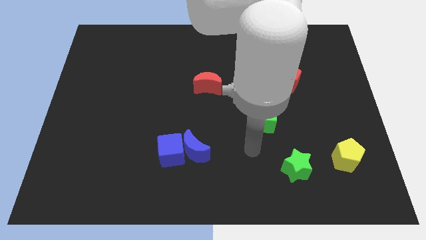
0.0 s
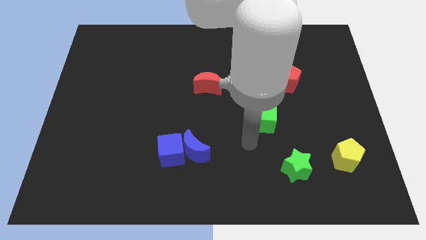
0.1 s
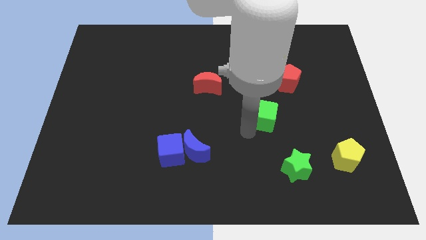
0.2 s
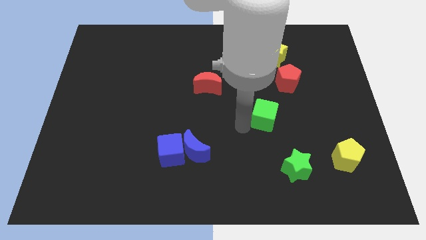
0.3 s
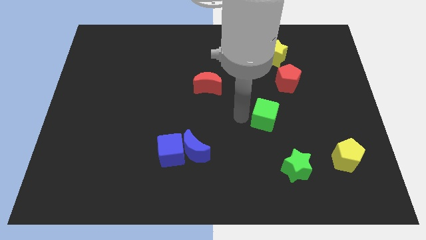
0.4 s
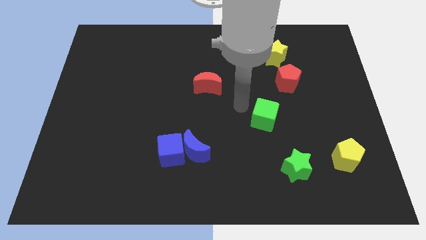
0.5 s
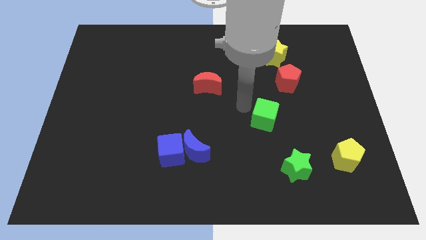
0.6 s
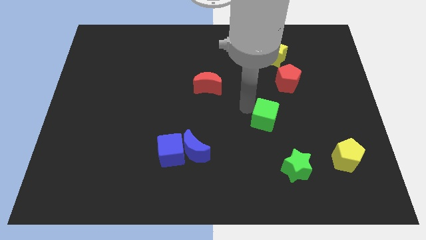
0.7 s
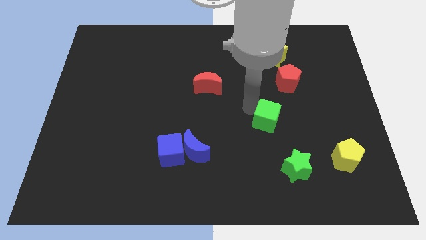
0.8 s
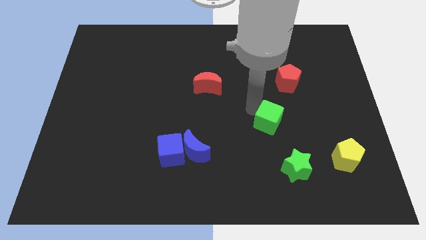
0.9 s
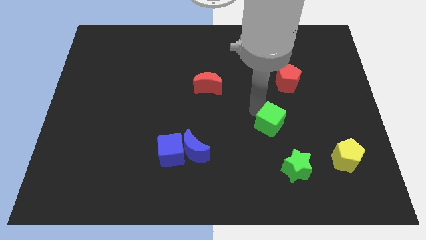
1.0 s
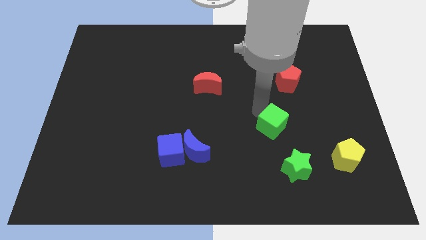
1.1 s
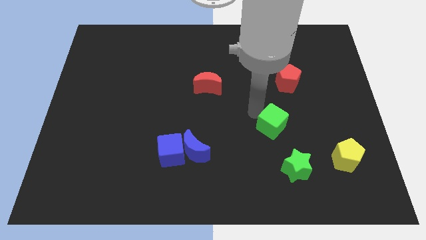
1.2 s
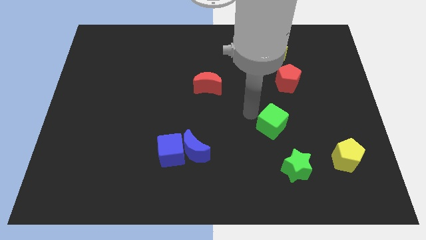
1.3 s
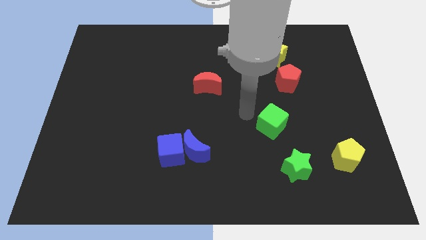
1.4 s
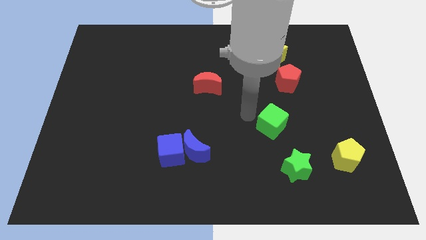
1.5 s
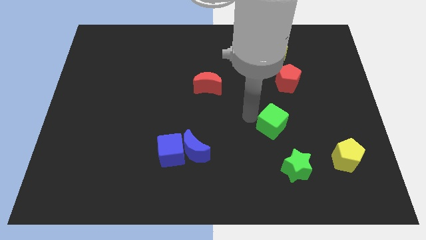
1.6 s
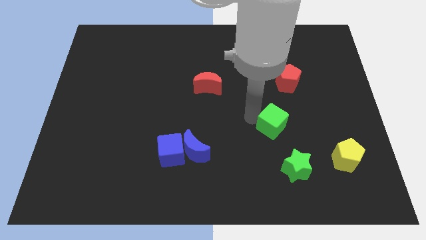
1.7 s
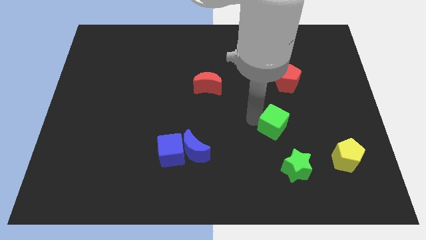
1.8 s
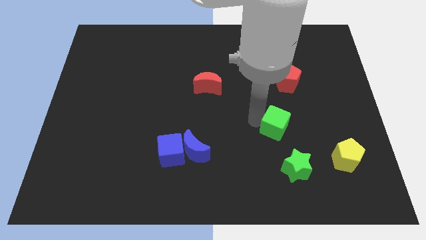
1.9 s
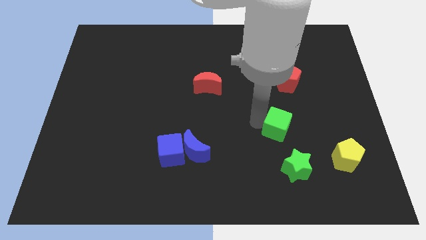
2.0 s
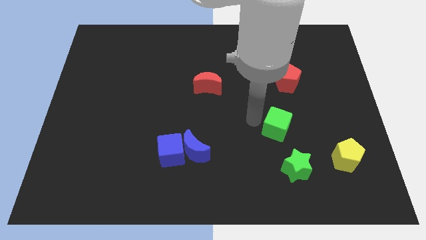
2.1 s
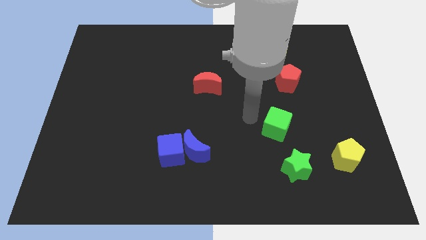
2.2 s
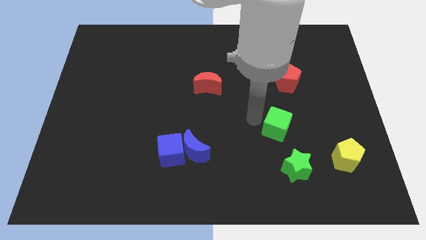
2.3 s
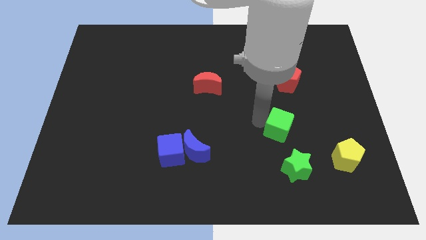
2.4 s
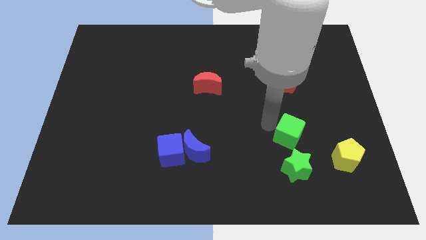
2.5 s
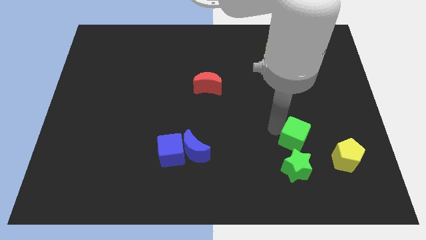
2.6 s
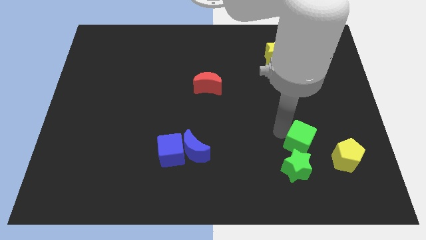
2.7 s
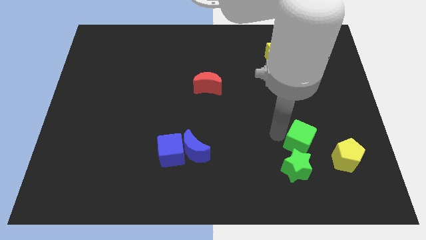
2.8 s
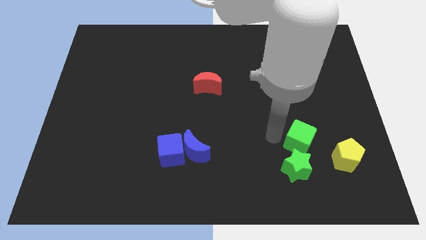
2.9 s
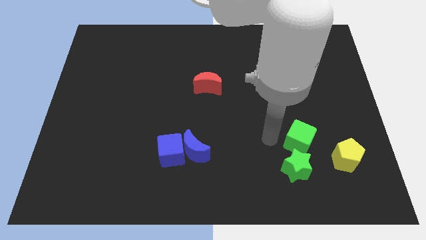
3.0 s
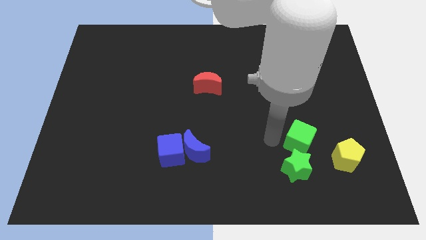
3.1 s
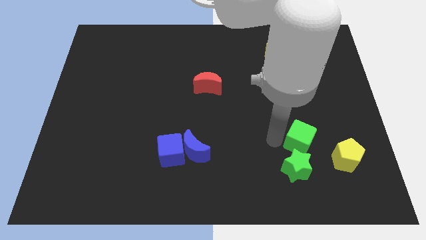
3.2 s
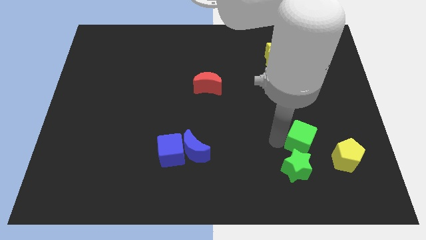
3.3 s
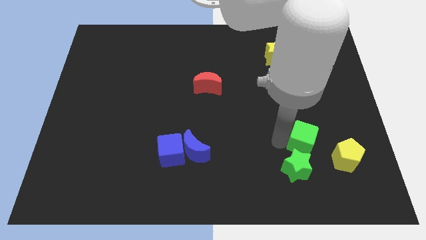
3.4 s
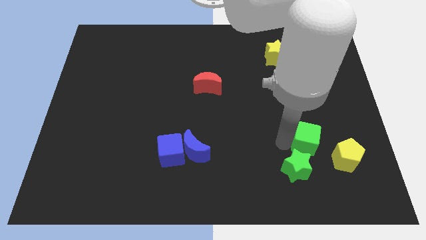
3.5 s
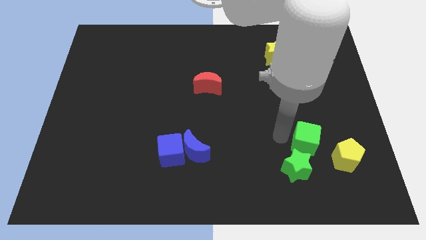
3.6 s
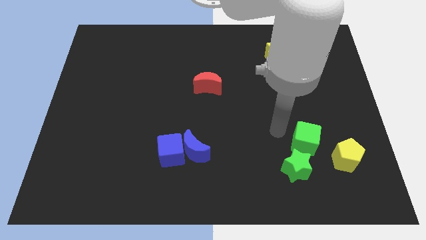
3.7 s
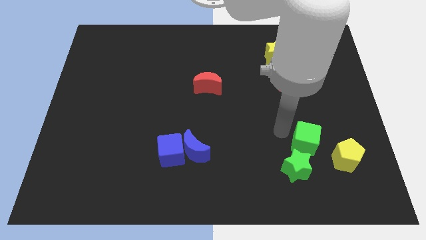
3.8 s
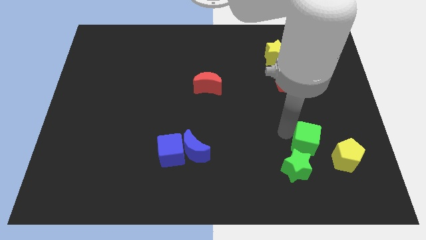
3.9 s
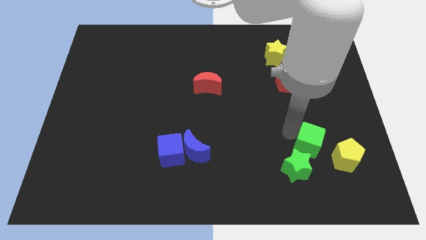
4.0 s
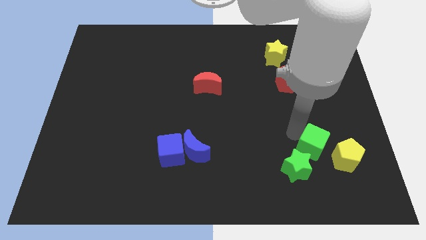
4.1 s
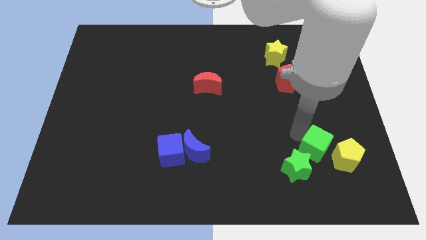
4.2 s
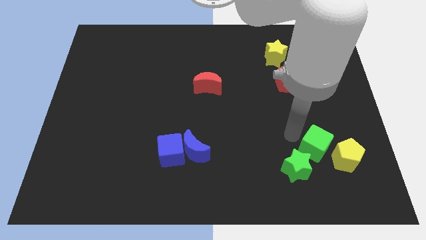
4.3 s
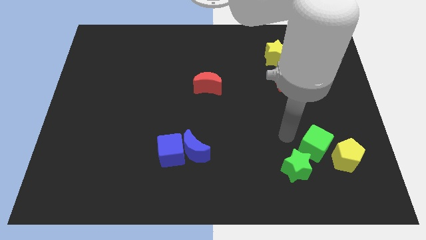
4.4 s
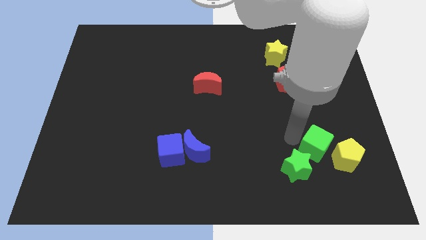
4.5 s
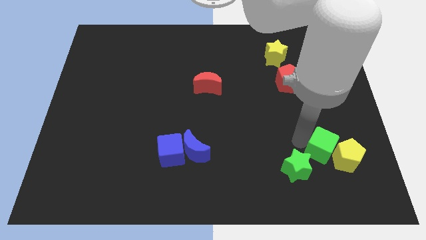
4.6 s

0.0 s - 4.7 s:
move the green cube towards the yellow pentagon

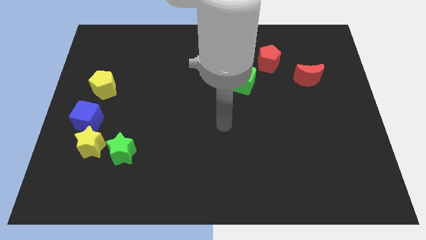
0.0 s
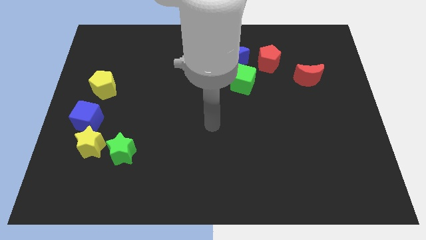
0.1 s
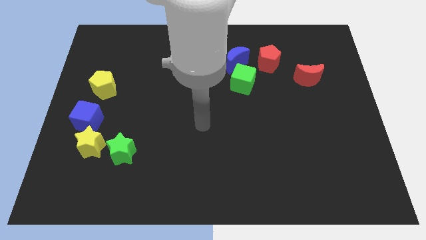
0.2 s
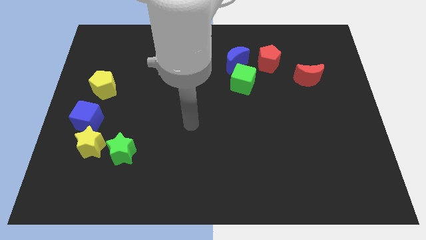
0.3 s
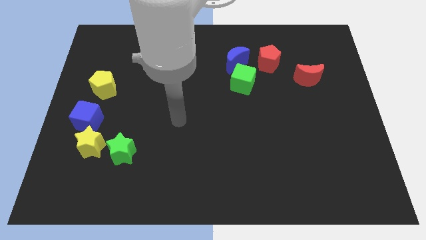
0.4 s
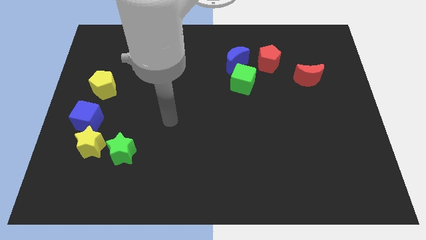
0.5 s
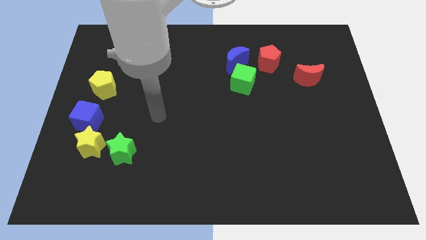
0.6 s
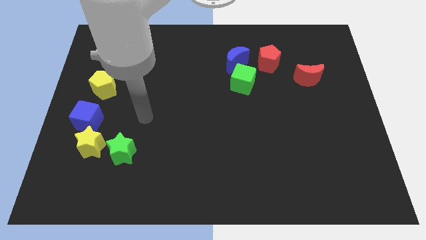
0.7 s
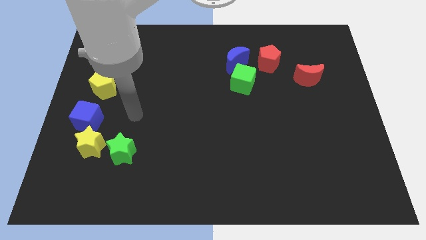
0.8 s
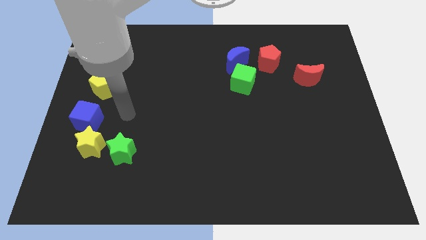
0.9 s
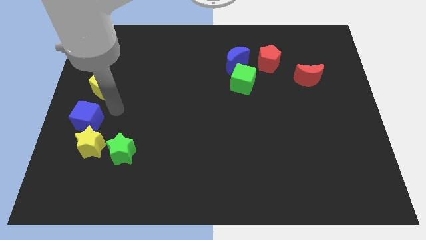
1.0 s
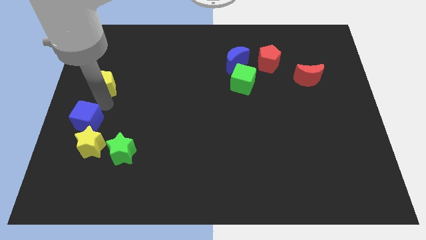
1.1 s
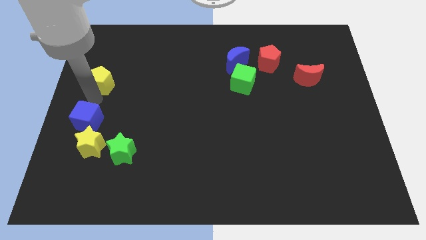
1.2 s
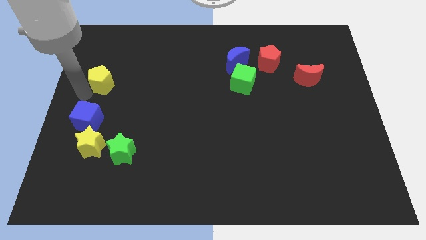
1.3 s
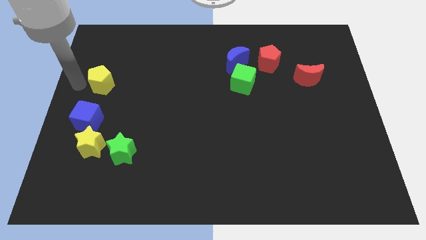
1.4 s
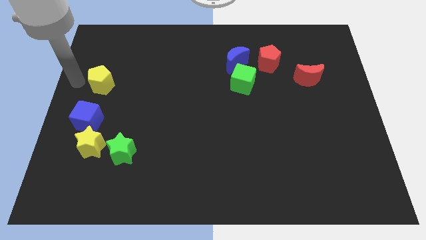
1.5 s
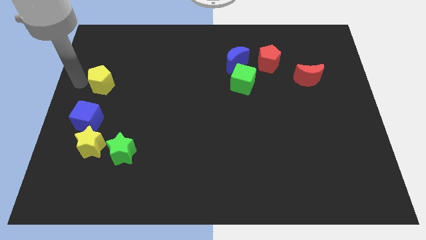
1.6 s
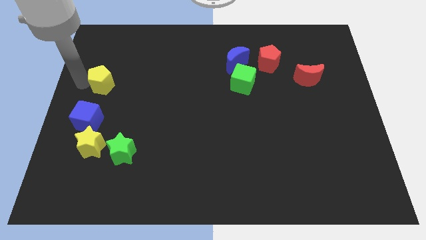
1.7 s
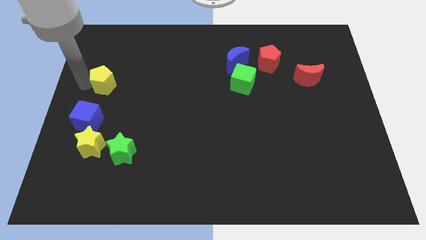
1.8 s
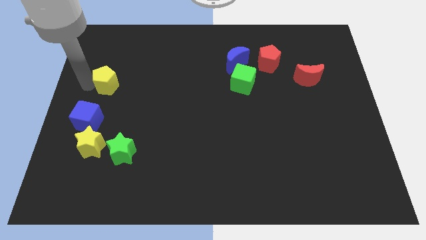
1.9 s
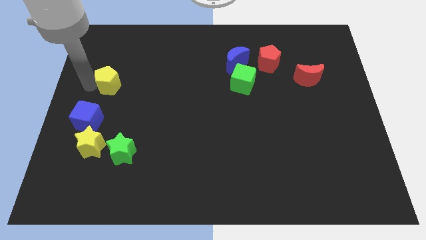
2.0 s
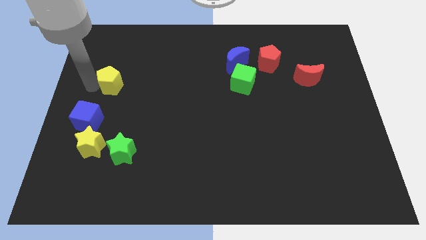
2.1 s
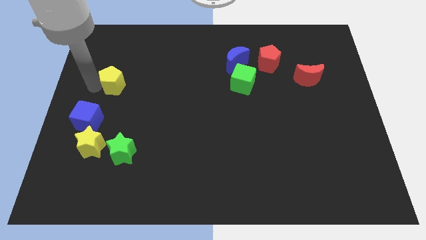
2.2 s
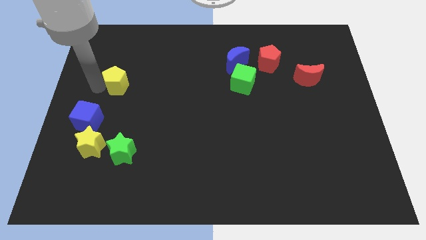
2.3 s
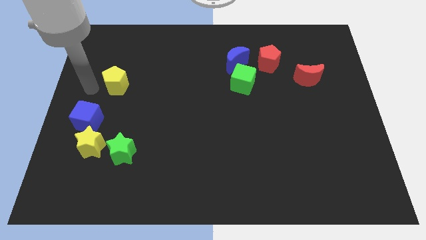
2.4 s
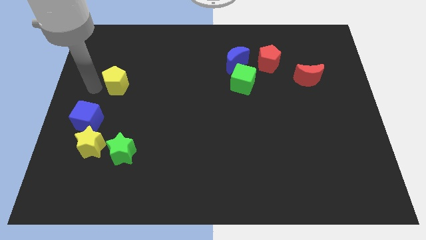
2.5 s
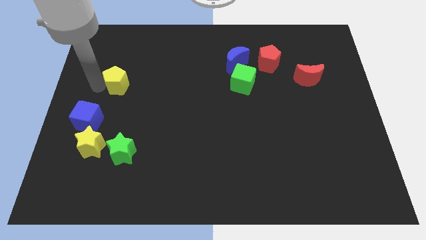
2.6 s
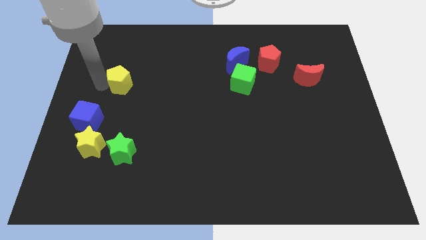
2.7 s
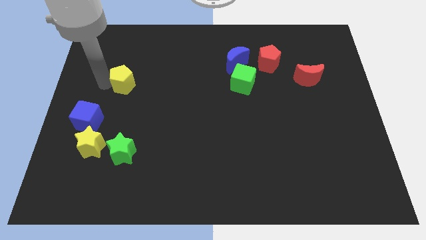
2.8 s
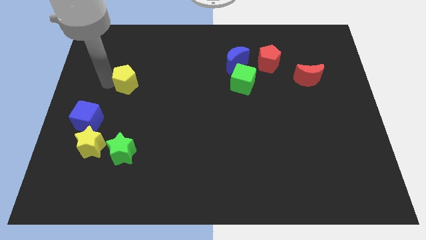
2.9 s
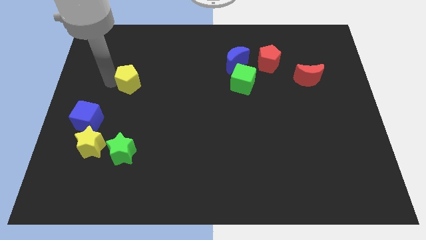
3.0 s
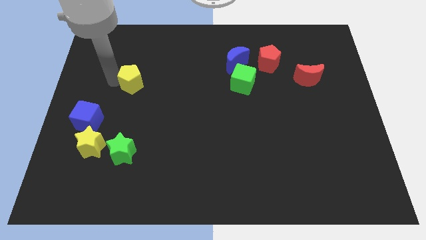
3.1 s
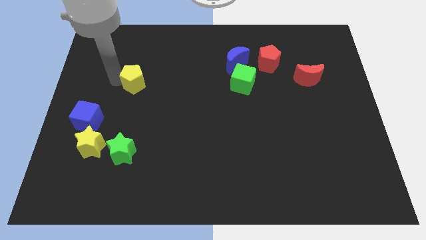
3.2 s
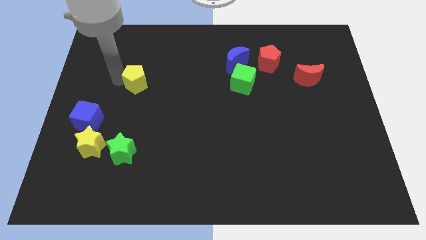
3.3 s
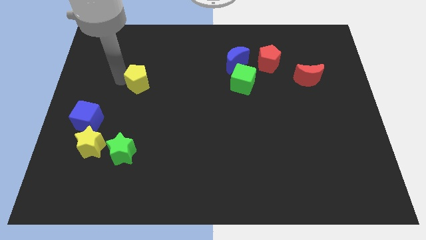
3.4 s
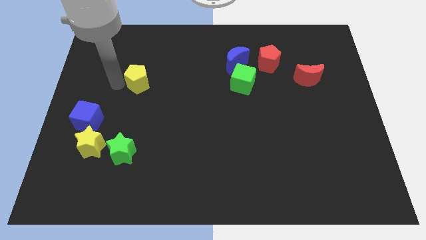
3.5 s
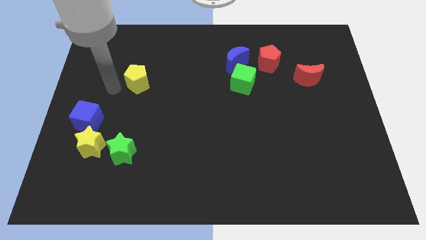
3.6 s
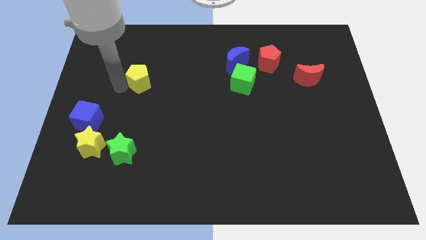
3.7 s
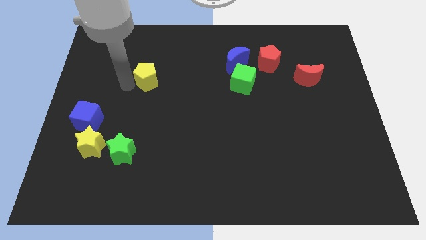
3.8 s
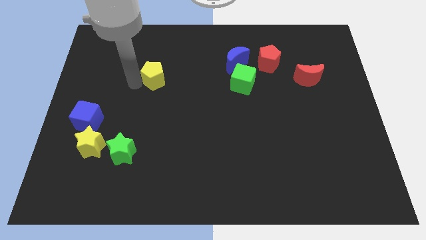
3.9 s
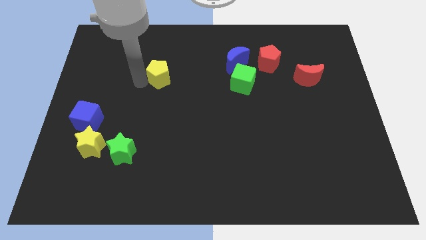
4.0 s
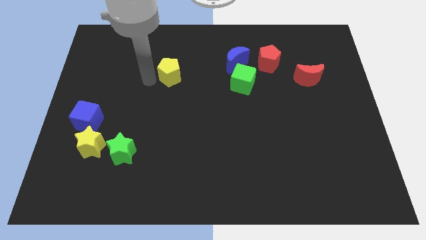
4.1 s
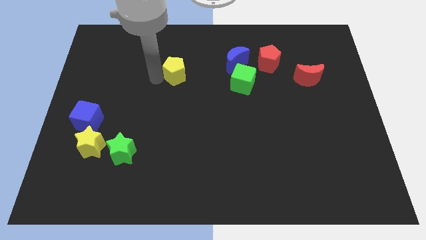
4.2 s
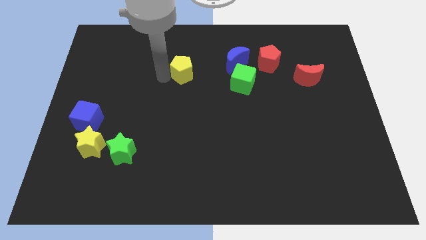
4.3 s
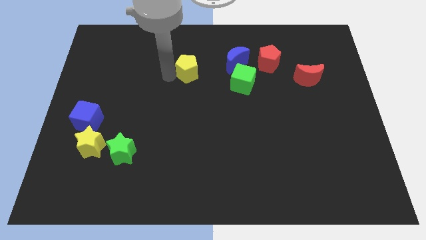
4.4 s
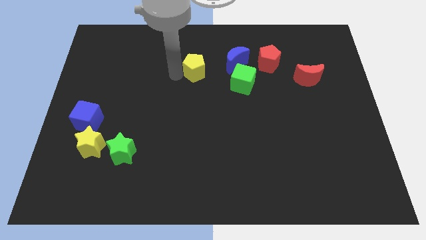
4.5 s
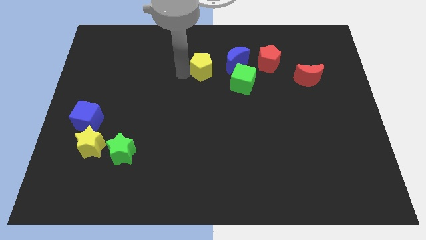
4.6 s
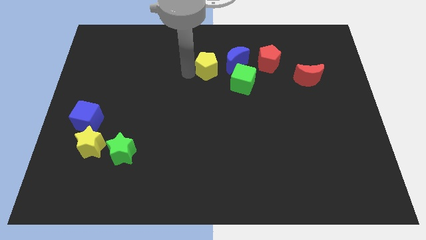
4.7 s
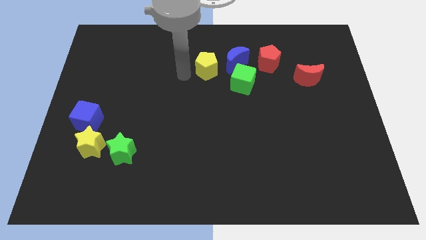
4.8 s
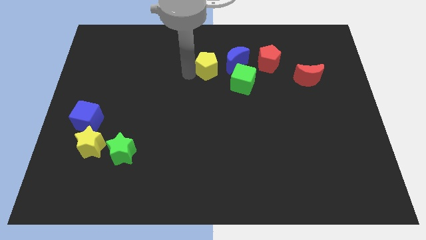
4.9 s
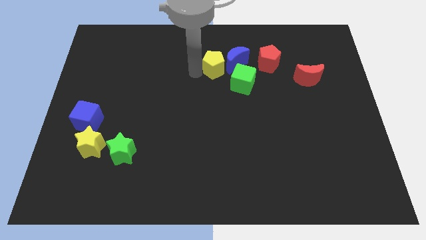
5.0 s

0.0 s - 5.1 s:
put the yellow pentagon close to the blue moon
